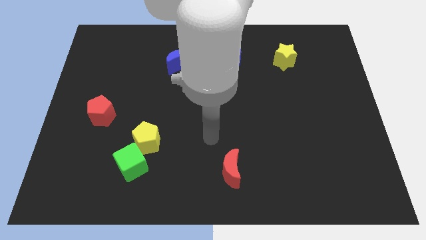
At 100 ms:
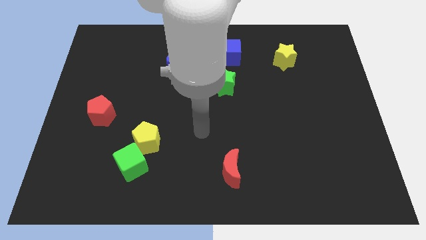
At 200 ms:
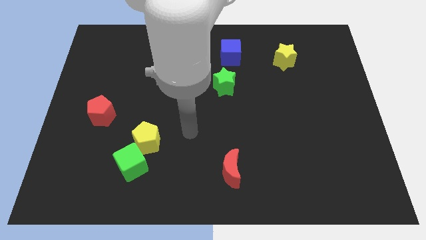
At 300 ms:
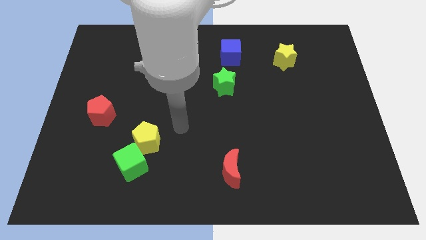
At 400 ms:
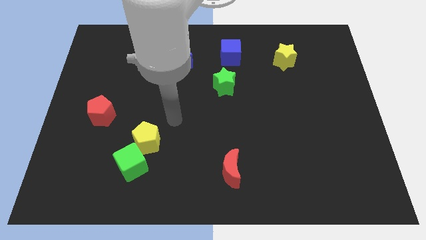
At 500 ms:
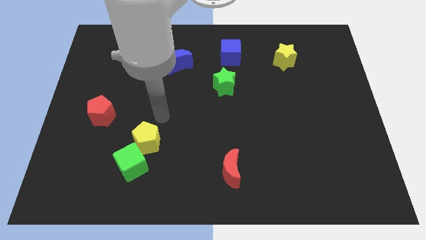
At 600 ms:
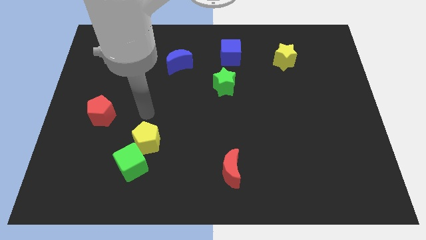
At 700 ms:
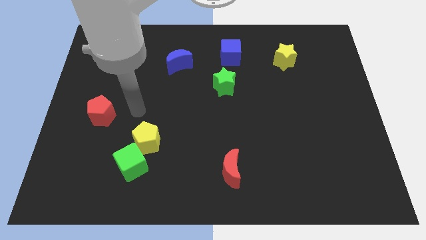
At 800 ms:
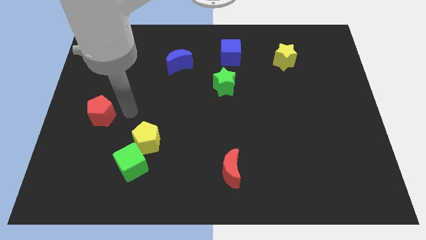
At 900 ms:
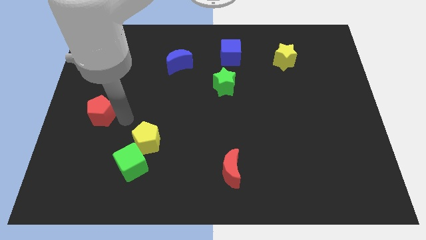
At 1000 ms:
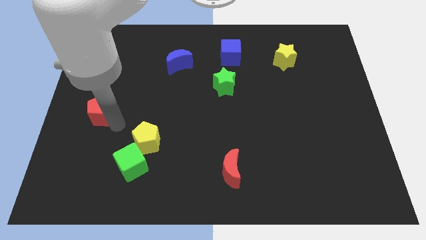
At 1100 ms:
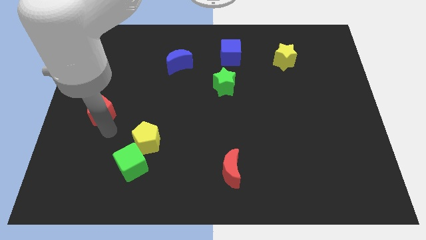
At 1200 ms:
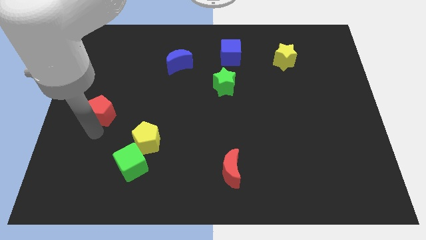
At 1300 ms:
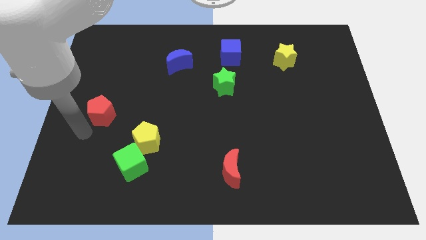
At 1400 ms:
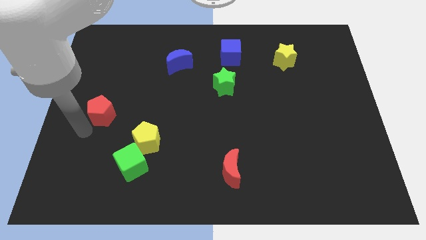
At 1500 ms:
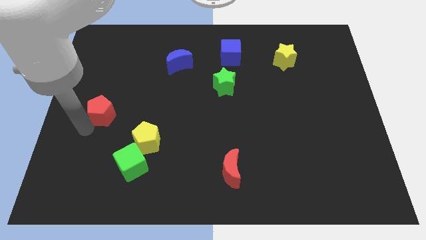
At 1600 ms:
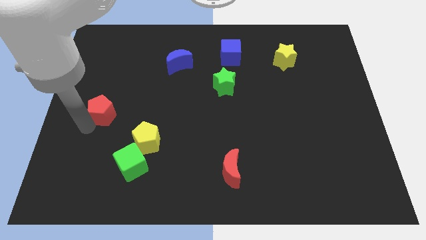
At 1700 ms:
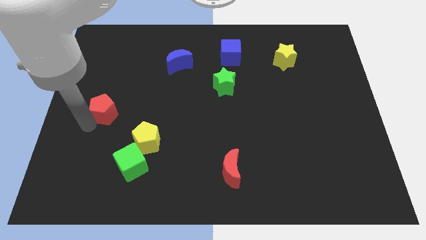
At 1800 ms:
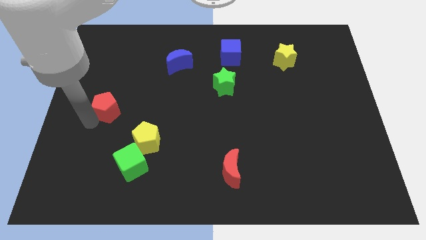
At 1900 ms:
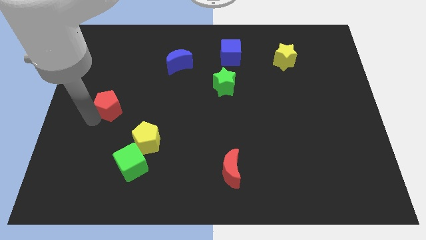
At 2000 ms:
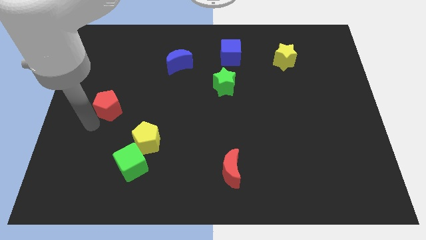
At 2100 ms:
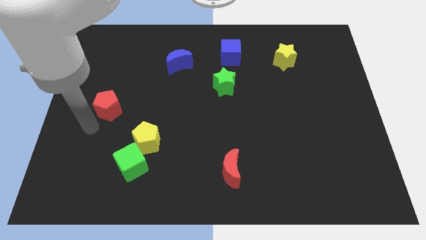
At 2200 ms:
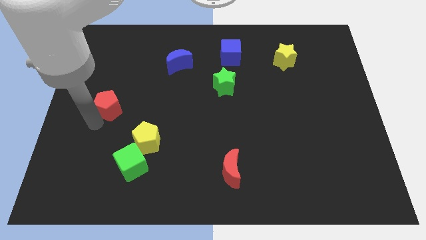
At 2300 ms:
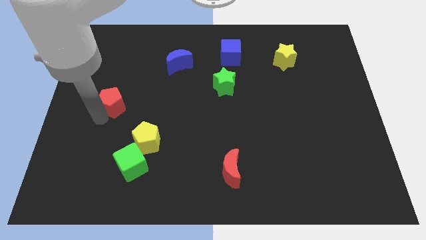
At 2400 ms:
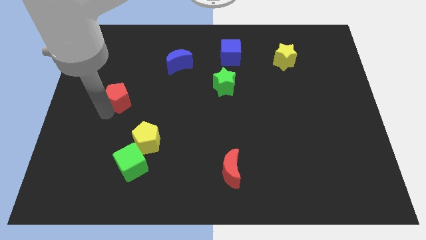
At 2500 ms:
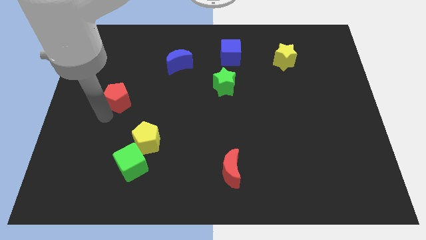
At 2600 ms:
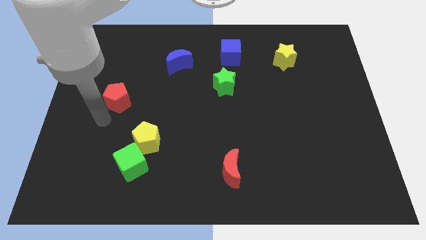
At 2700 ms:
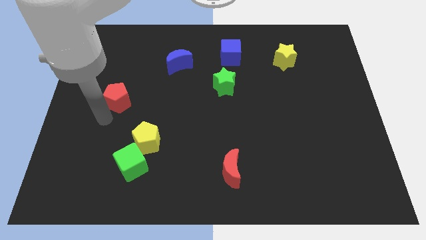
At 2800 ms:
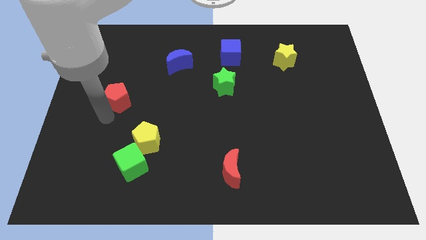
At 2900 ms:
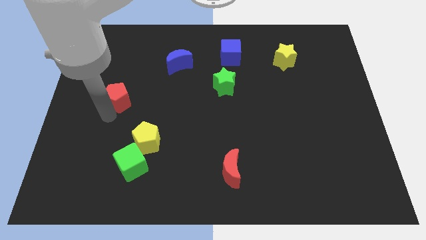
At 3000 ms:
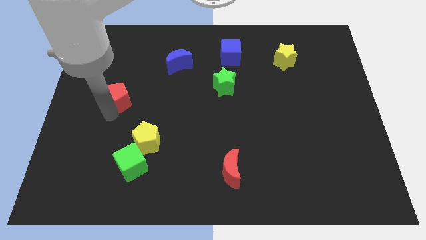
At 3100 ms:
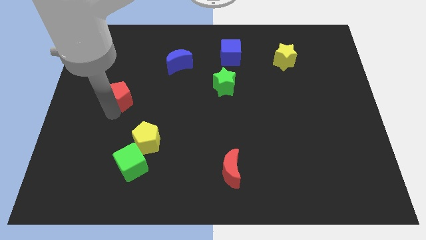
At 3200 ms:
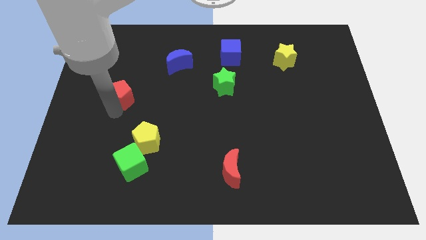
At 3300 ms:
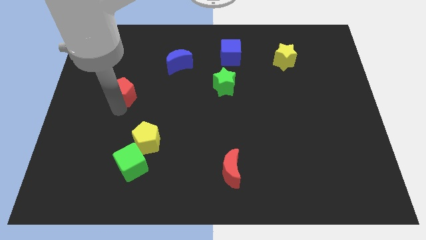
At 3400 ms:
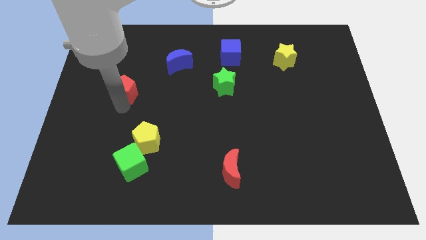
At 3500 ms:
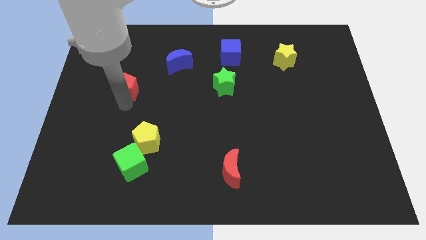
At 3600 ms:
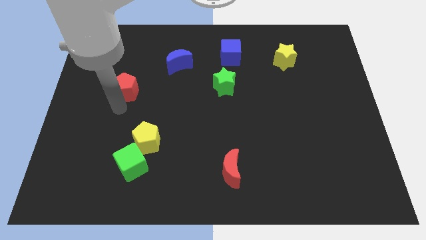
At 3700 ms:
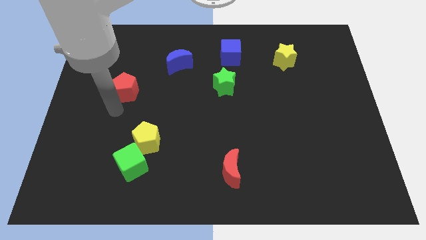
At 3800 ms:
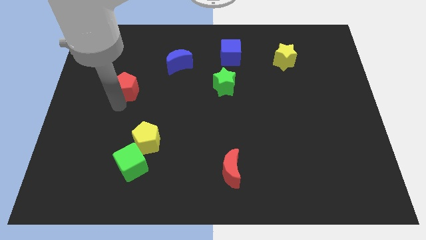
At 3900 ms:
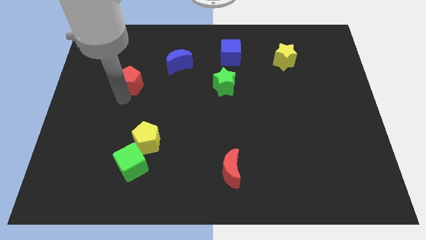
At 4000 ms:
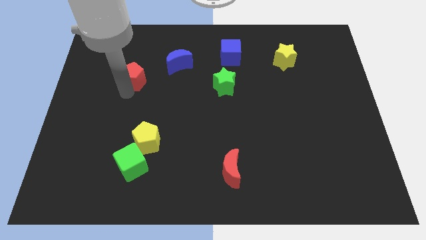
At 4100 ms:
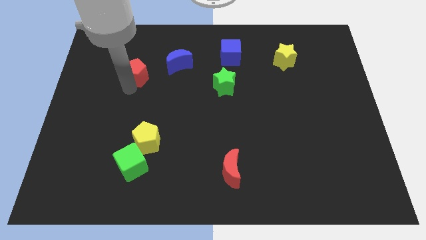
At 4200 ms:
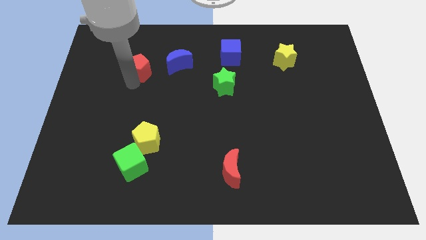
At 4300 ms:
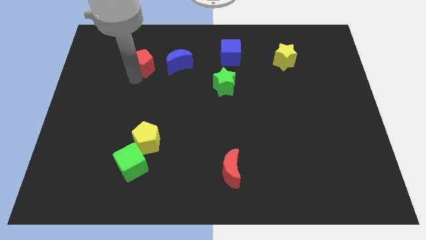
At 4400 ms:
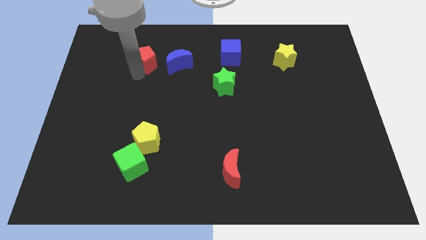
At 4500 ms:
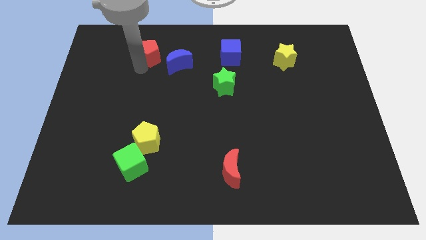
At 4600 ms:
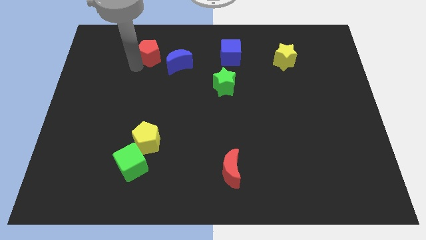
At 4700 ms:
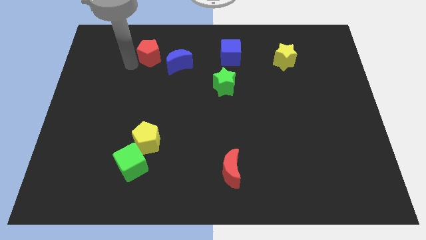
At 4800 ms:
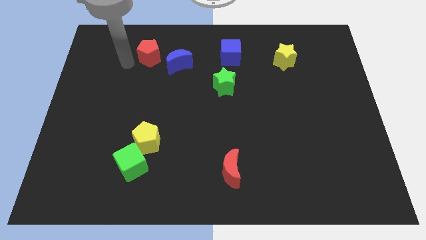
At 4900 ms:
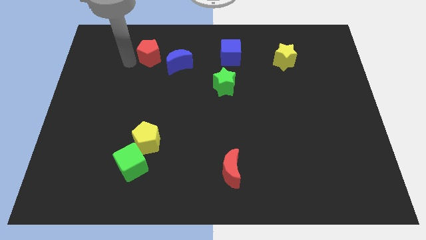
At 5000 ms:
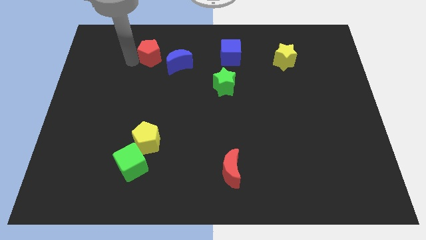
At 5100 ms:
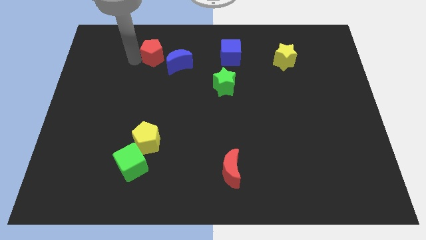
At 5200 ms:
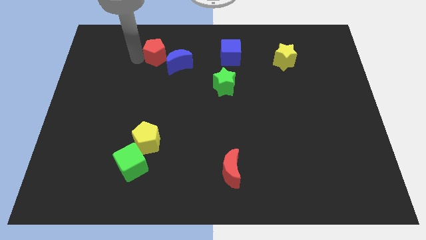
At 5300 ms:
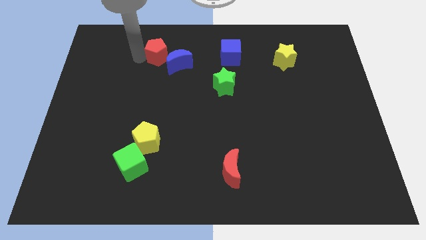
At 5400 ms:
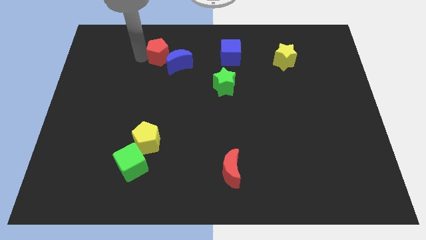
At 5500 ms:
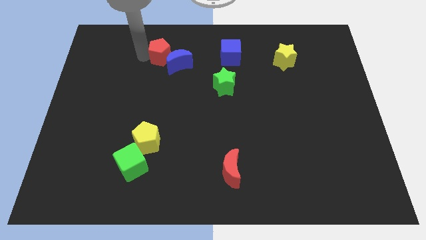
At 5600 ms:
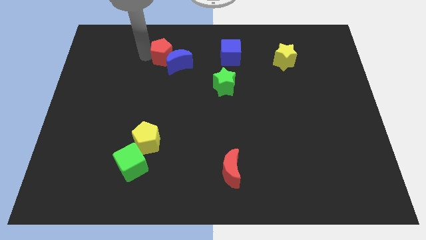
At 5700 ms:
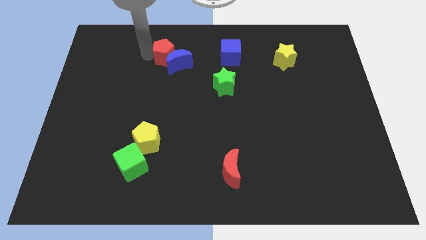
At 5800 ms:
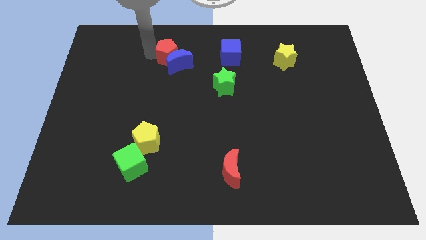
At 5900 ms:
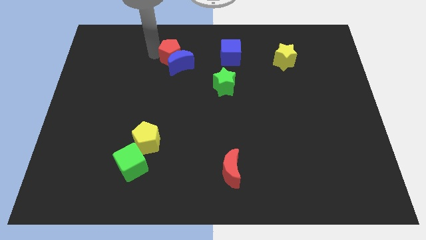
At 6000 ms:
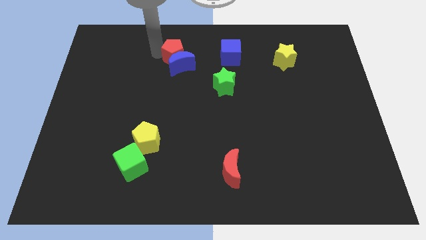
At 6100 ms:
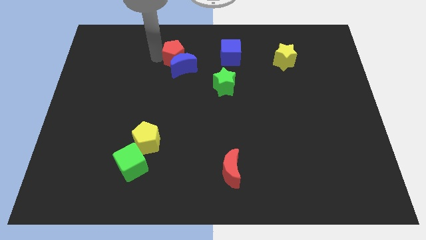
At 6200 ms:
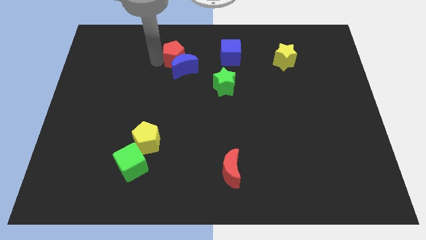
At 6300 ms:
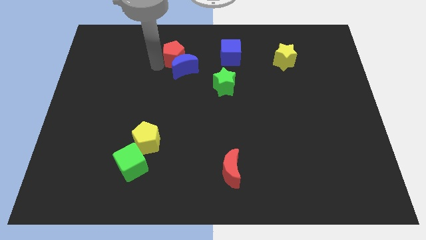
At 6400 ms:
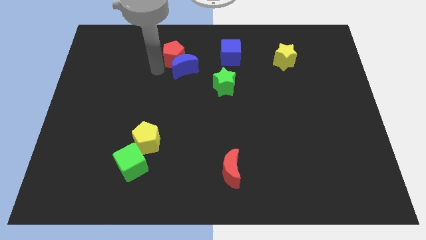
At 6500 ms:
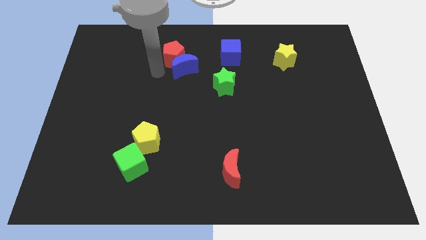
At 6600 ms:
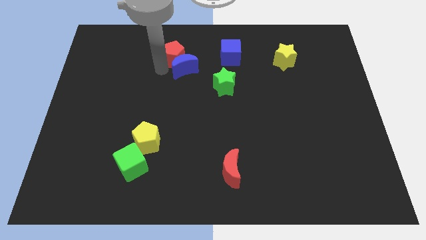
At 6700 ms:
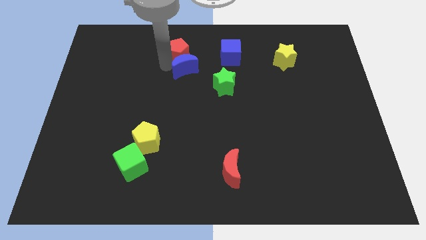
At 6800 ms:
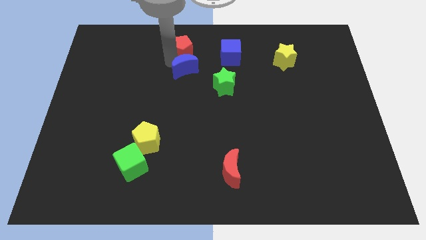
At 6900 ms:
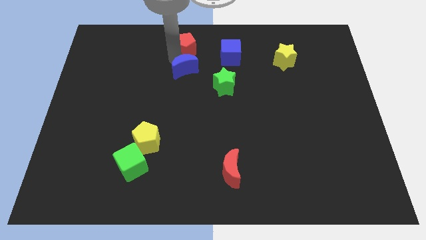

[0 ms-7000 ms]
push the red pentagon to the top side

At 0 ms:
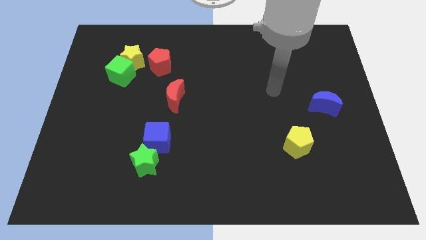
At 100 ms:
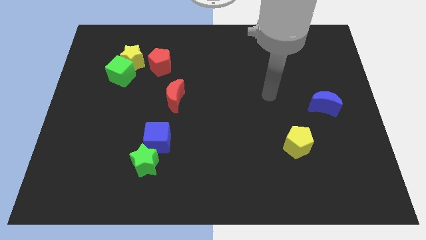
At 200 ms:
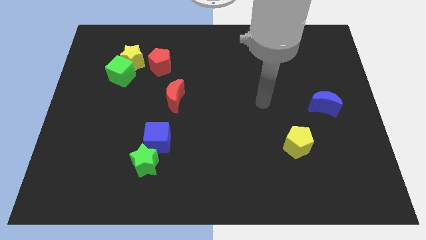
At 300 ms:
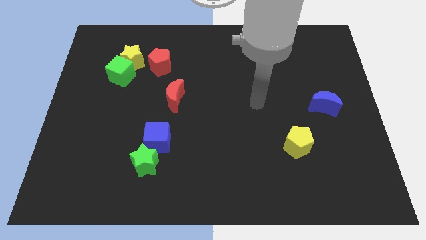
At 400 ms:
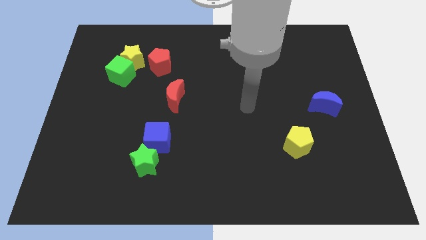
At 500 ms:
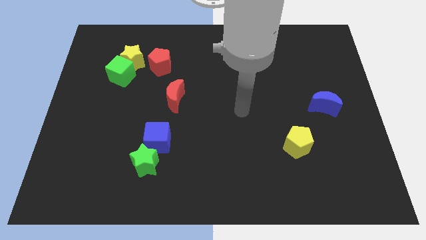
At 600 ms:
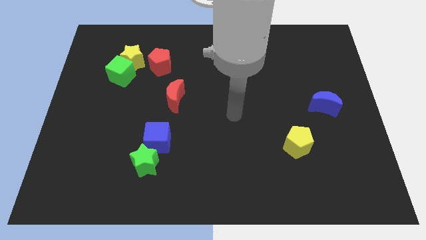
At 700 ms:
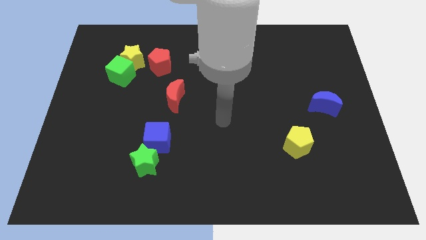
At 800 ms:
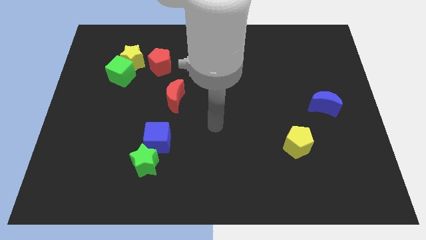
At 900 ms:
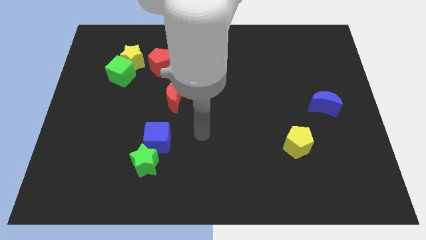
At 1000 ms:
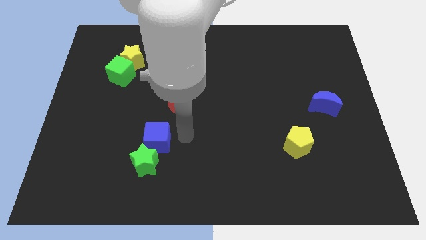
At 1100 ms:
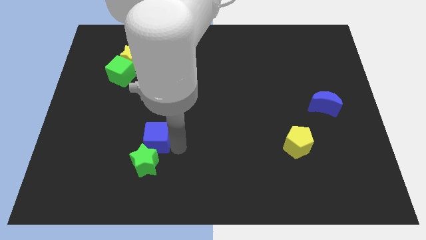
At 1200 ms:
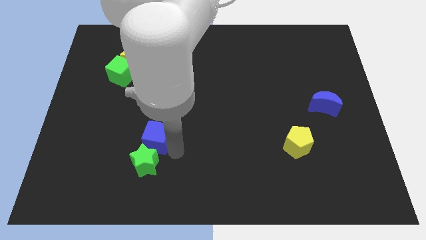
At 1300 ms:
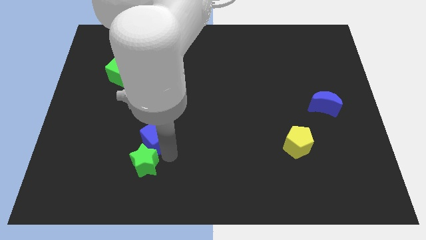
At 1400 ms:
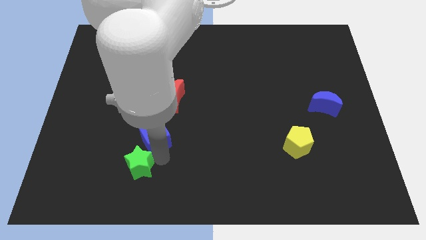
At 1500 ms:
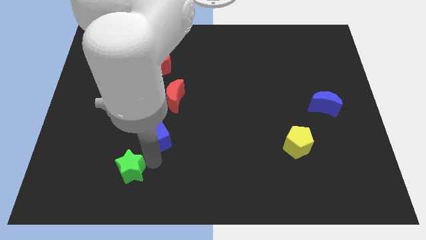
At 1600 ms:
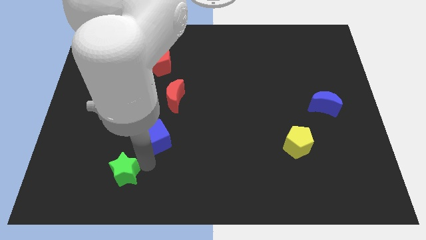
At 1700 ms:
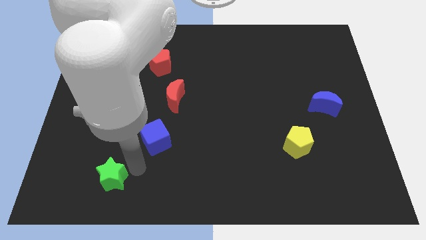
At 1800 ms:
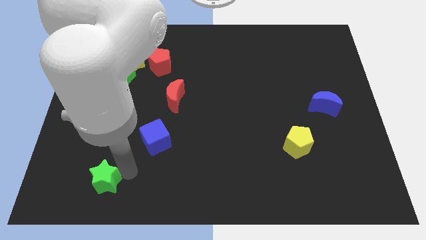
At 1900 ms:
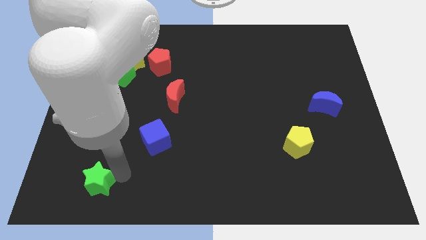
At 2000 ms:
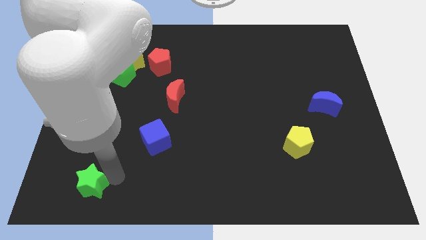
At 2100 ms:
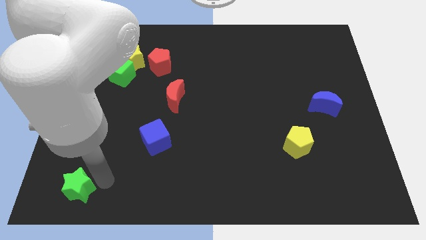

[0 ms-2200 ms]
put the green star to the bottom left corner
